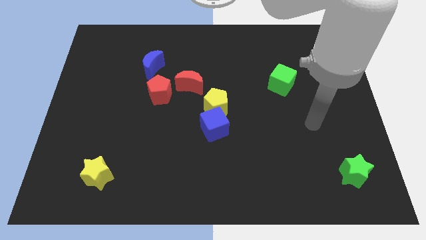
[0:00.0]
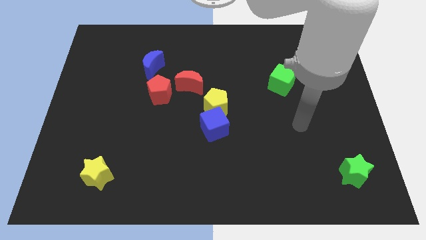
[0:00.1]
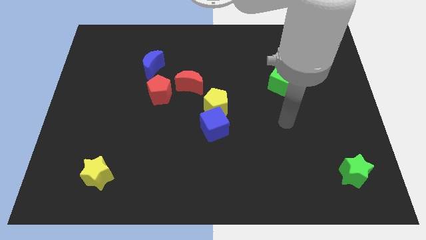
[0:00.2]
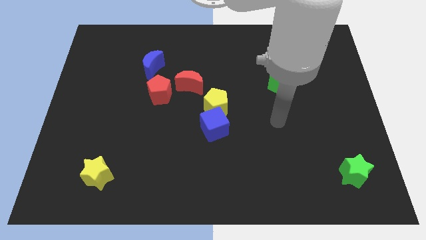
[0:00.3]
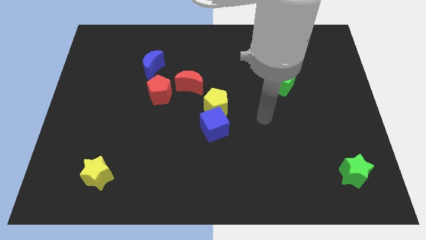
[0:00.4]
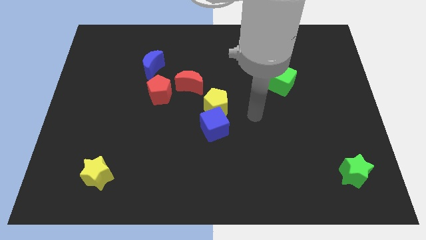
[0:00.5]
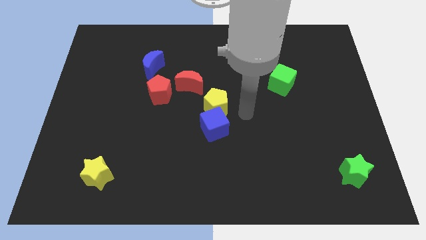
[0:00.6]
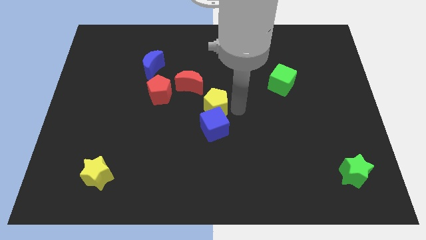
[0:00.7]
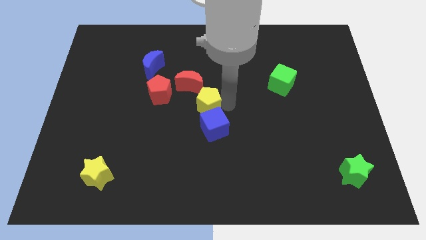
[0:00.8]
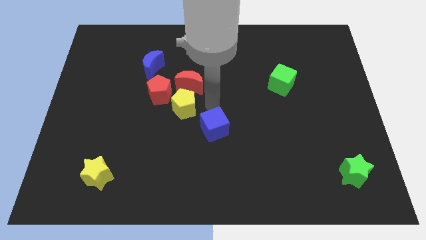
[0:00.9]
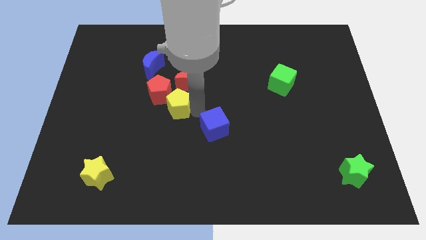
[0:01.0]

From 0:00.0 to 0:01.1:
separate the blue cube from the yellow pentagon

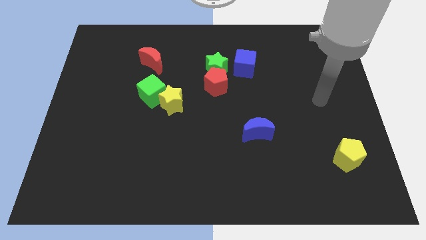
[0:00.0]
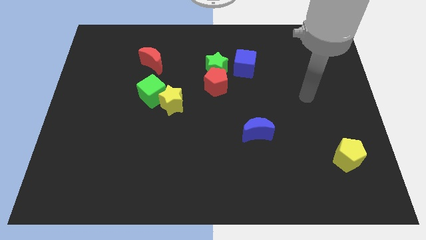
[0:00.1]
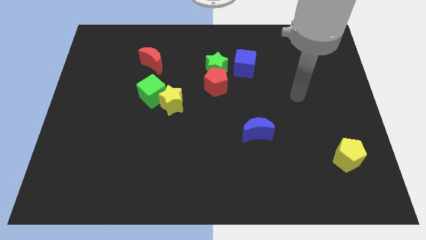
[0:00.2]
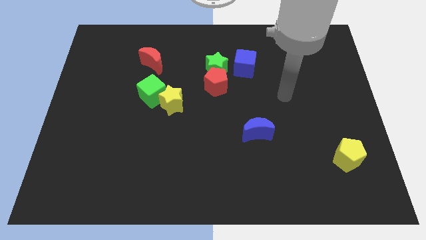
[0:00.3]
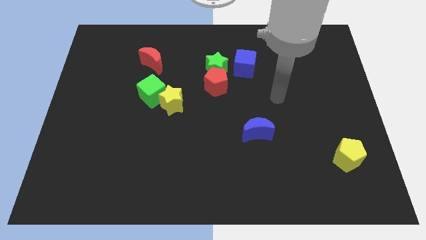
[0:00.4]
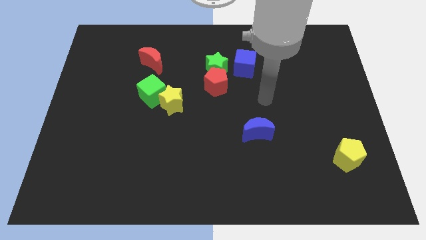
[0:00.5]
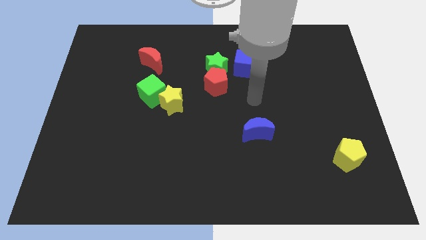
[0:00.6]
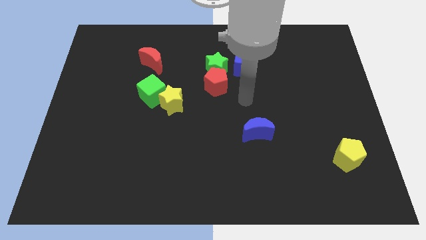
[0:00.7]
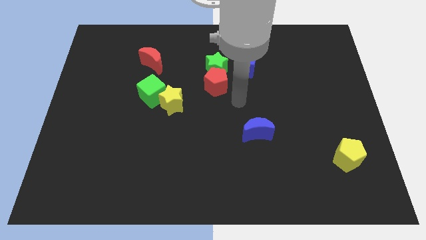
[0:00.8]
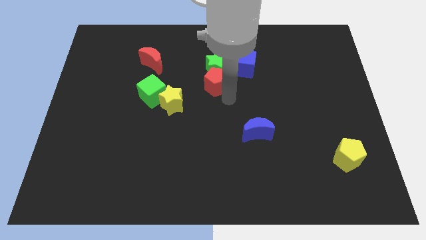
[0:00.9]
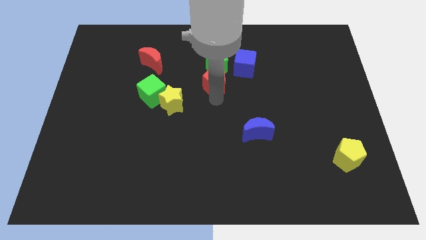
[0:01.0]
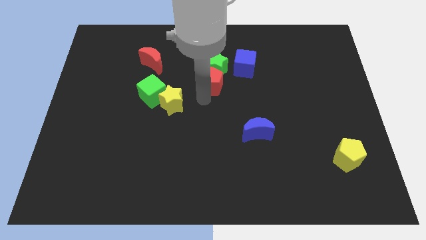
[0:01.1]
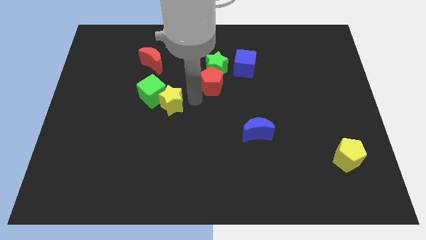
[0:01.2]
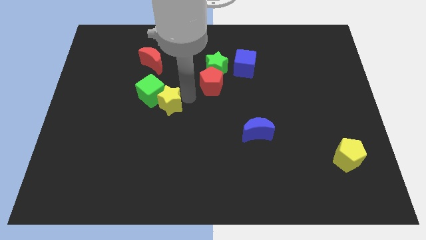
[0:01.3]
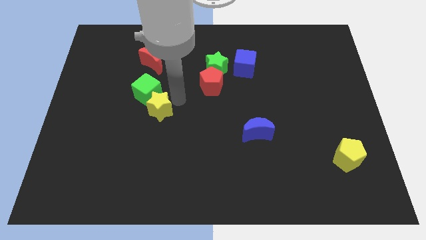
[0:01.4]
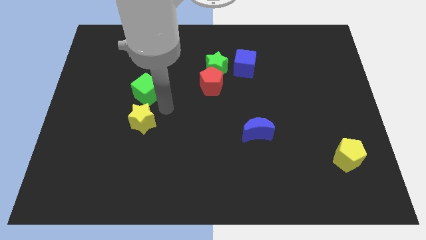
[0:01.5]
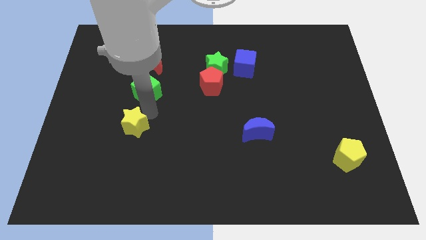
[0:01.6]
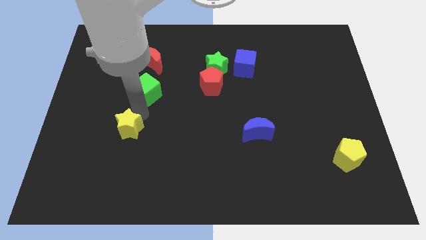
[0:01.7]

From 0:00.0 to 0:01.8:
separate the green cube from the yellow star

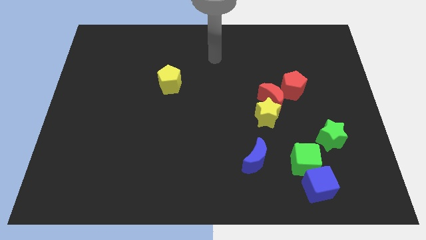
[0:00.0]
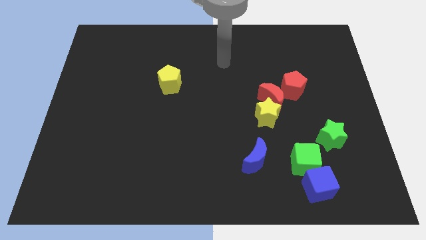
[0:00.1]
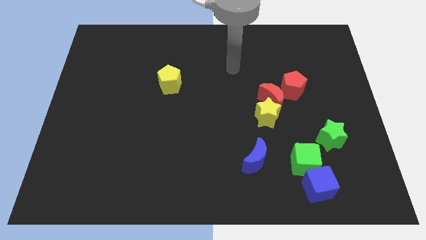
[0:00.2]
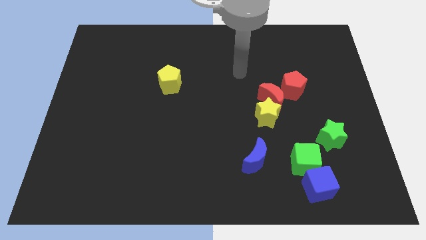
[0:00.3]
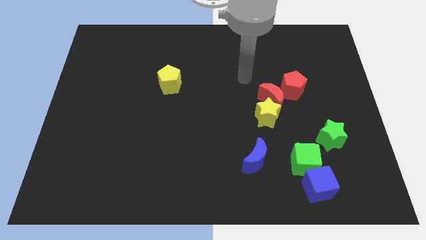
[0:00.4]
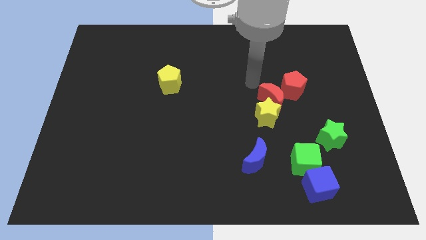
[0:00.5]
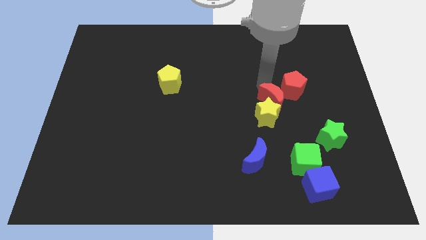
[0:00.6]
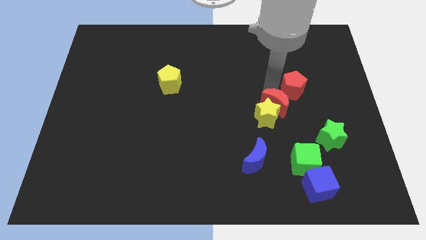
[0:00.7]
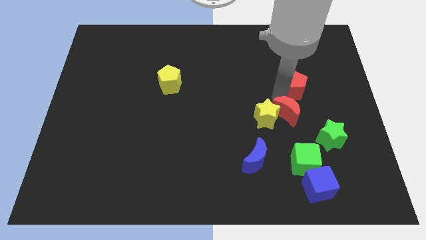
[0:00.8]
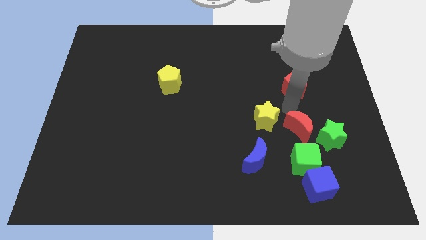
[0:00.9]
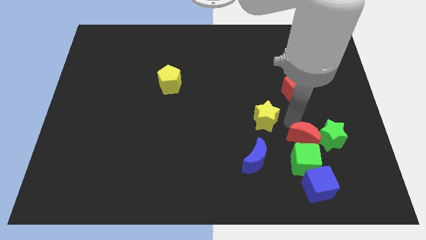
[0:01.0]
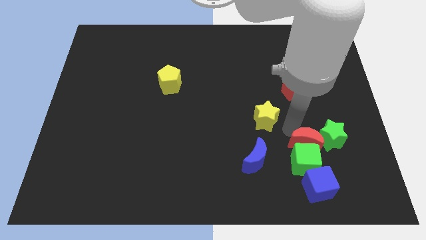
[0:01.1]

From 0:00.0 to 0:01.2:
separate the yellow star from the red moon

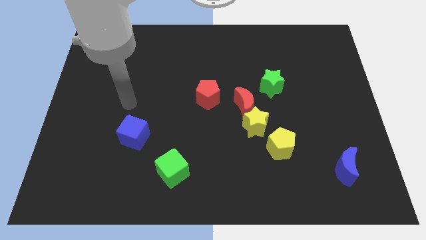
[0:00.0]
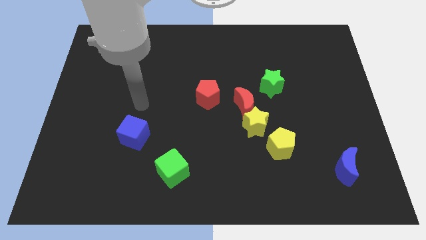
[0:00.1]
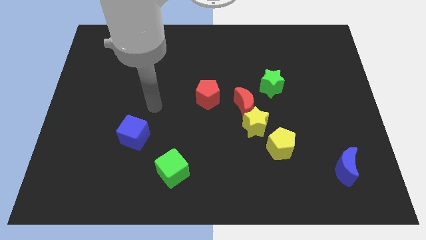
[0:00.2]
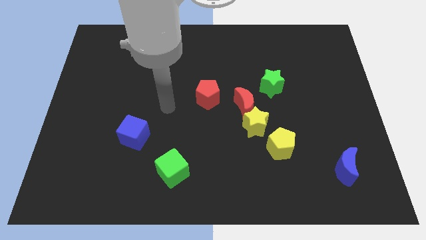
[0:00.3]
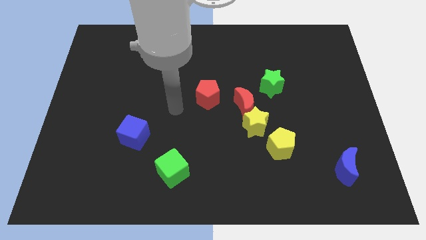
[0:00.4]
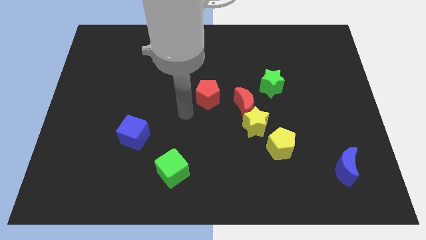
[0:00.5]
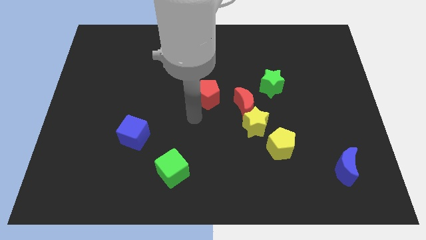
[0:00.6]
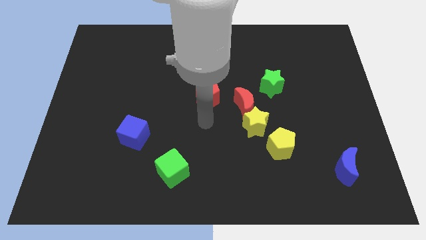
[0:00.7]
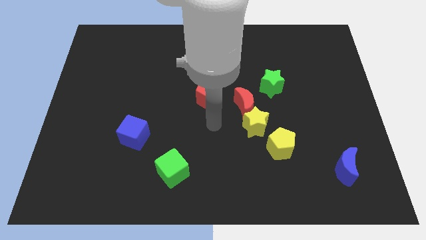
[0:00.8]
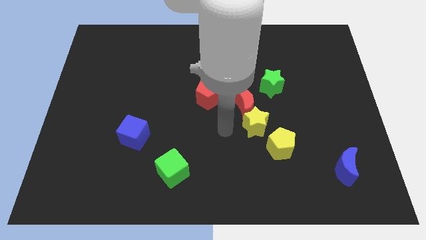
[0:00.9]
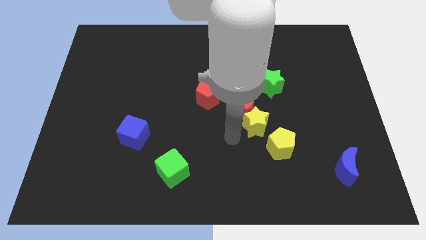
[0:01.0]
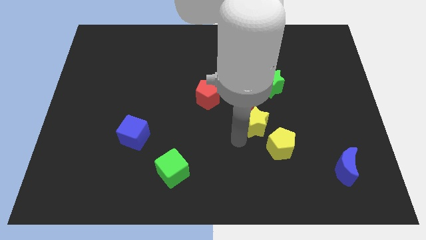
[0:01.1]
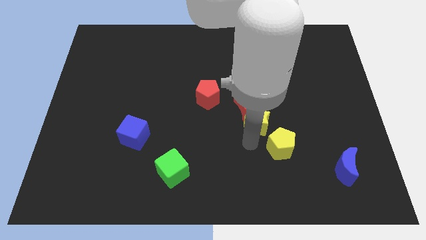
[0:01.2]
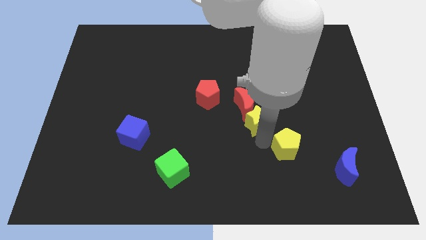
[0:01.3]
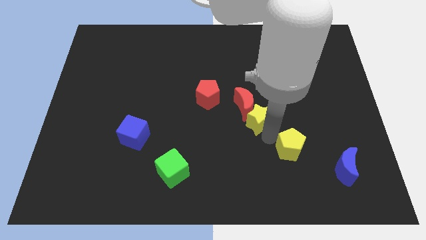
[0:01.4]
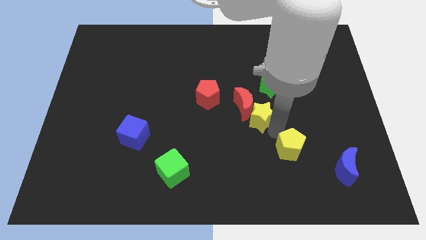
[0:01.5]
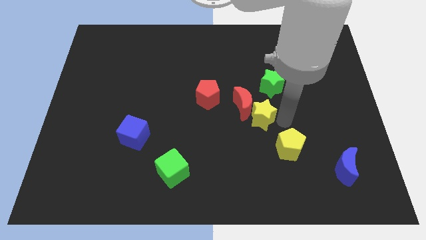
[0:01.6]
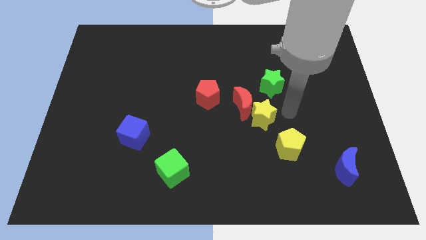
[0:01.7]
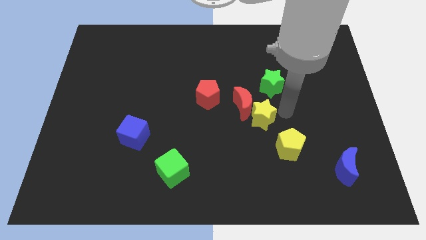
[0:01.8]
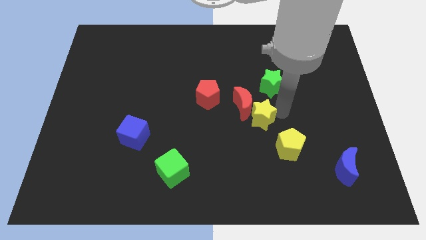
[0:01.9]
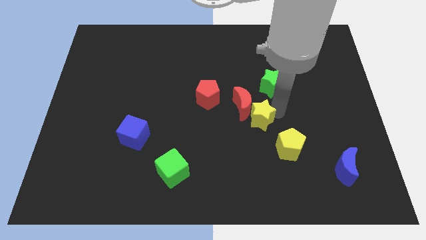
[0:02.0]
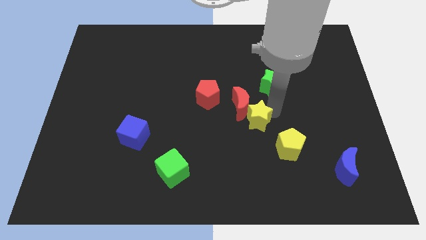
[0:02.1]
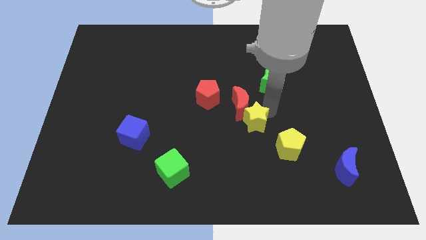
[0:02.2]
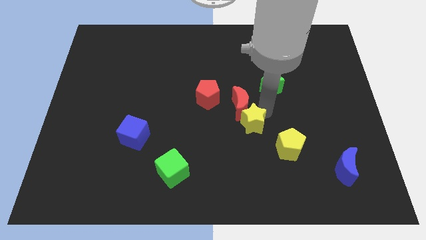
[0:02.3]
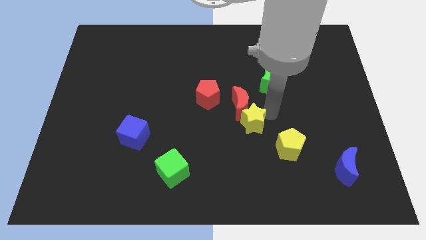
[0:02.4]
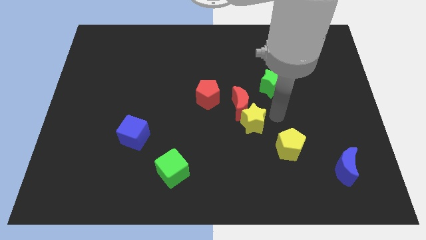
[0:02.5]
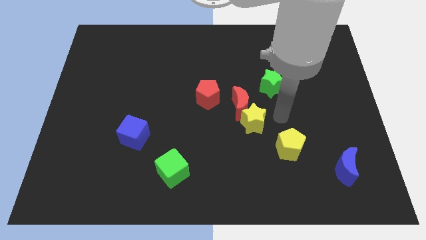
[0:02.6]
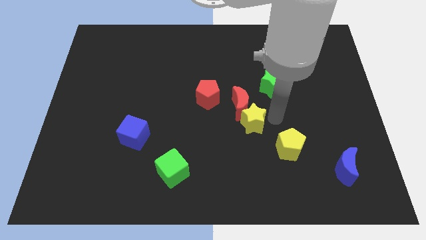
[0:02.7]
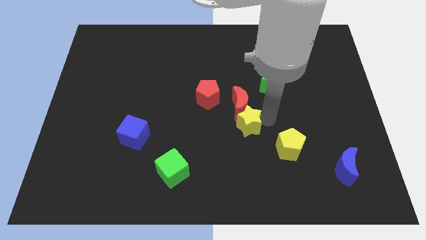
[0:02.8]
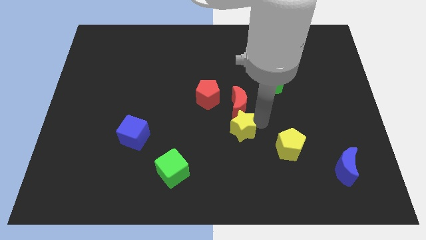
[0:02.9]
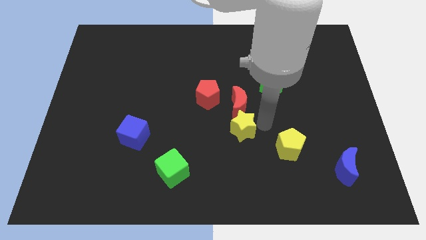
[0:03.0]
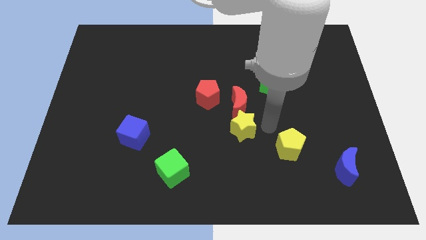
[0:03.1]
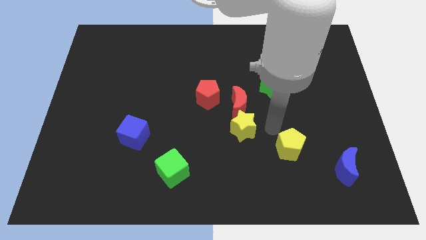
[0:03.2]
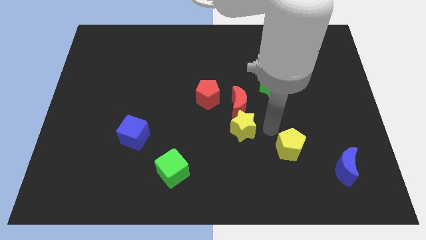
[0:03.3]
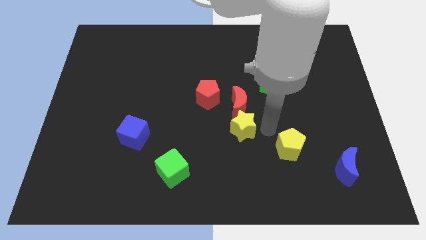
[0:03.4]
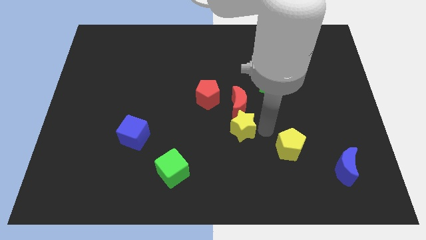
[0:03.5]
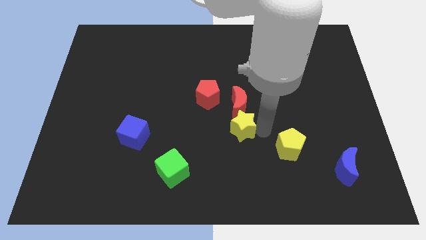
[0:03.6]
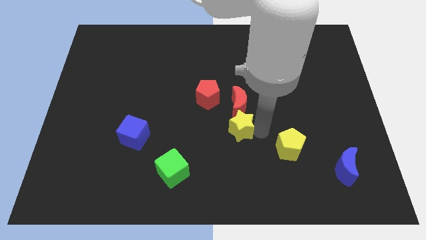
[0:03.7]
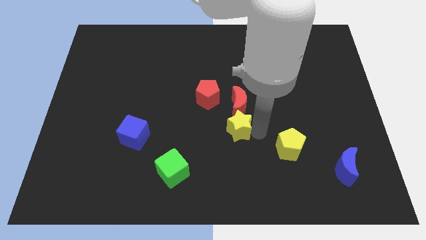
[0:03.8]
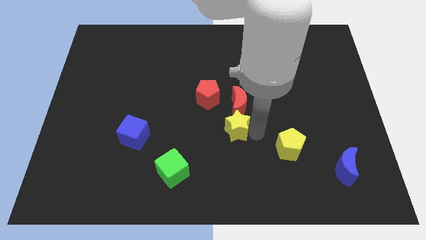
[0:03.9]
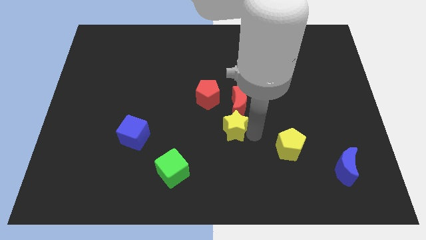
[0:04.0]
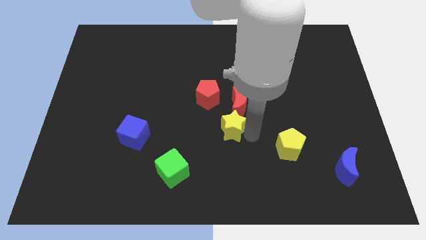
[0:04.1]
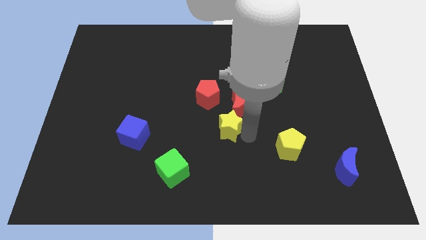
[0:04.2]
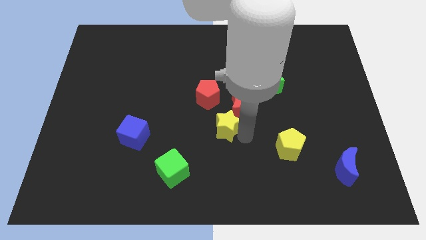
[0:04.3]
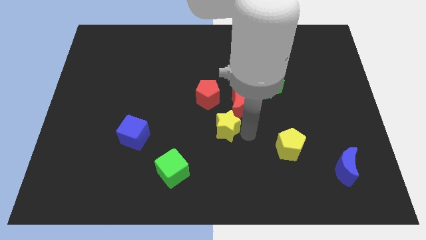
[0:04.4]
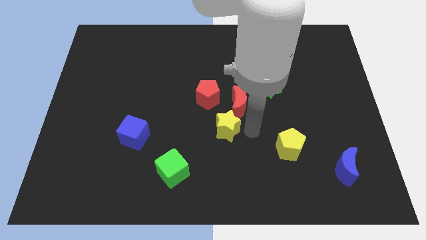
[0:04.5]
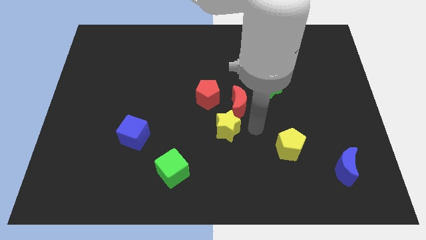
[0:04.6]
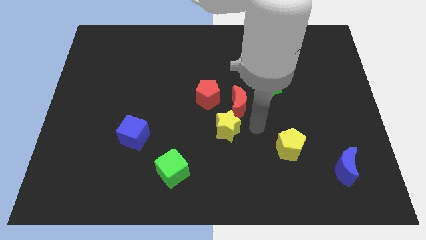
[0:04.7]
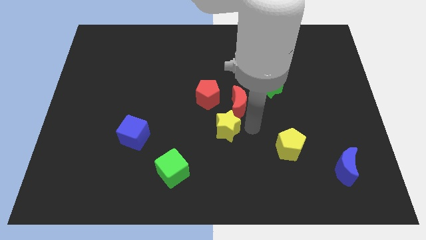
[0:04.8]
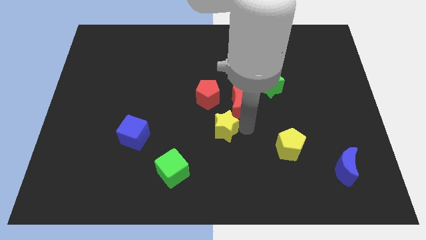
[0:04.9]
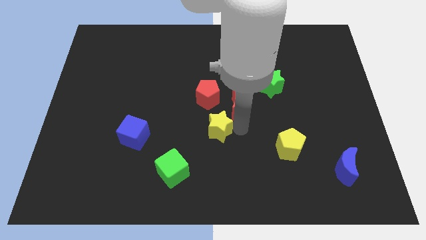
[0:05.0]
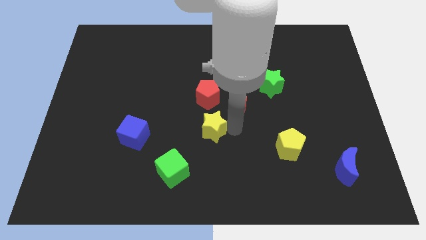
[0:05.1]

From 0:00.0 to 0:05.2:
separate the yellow star from the red moon and yellow pentagon
